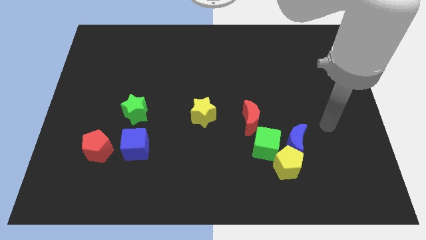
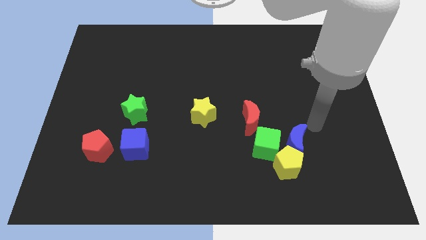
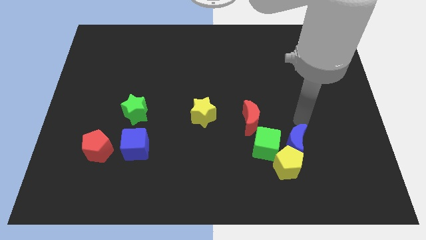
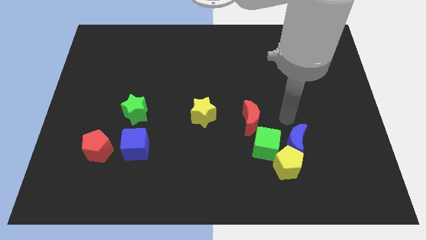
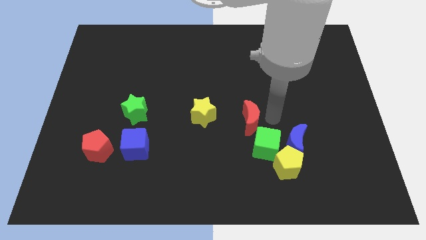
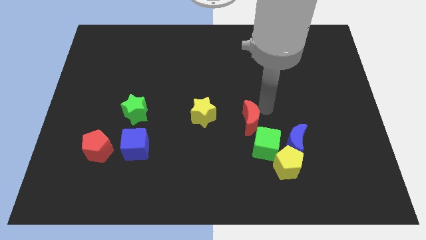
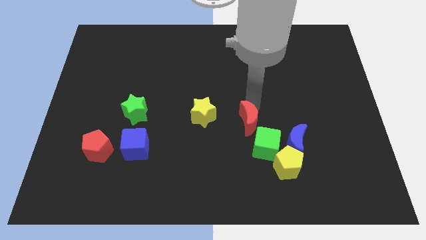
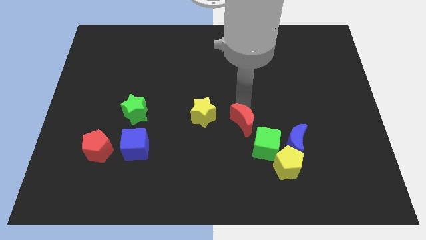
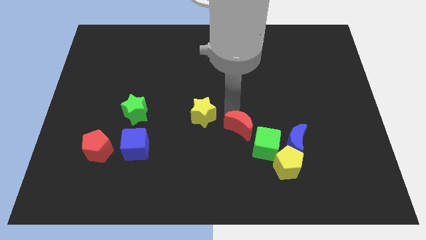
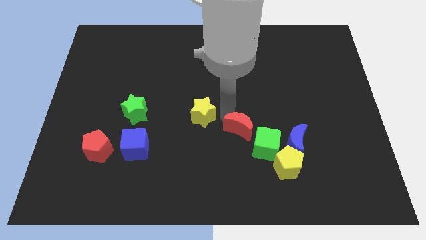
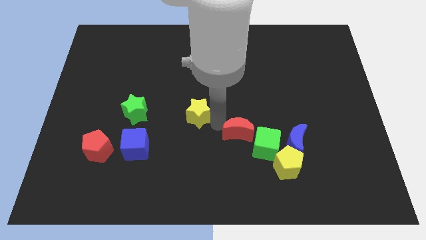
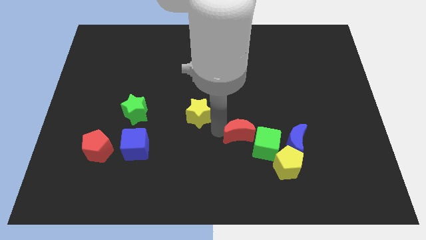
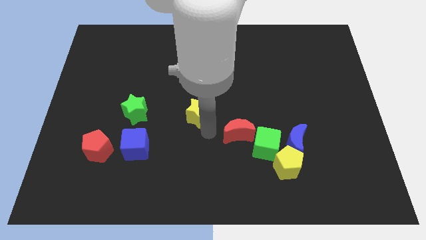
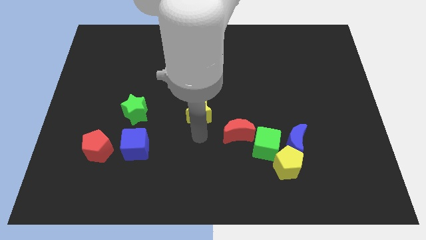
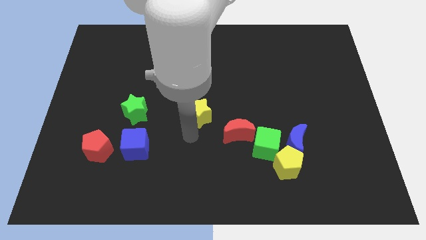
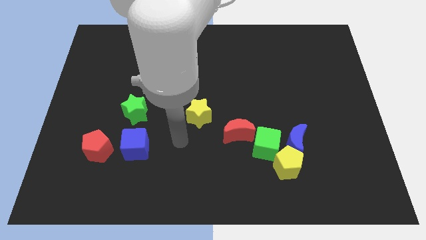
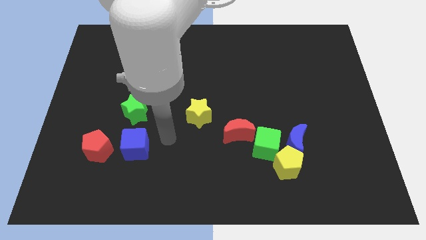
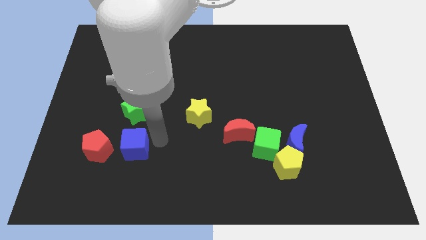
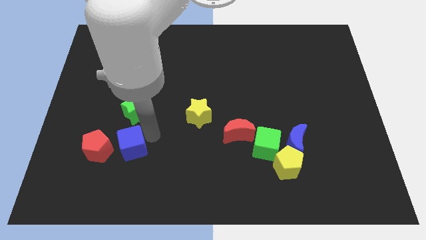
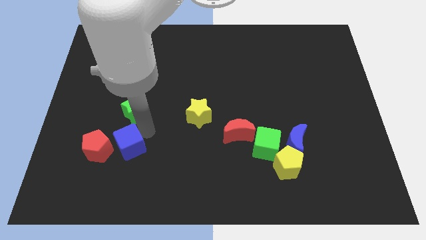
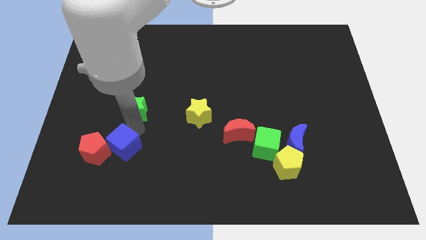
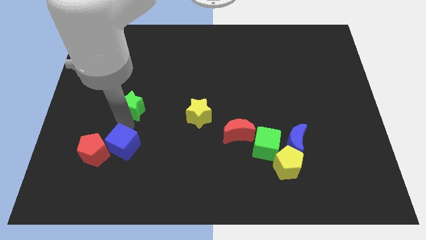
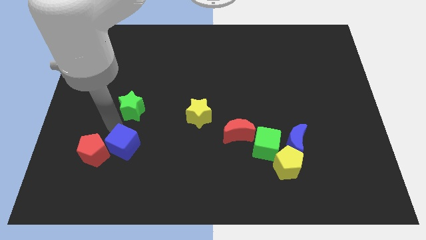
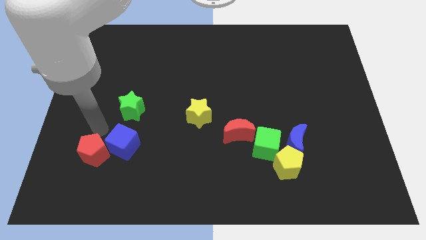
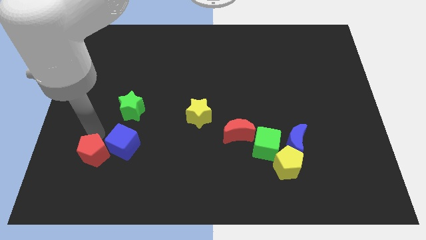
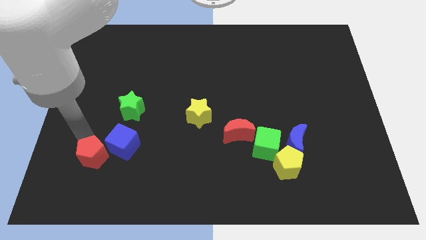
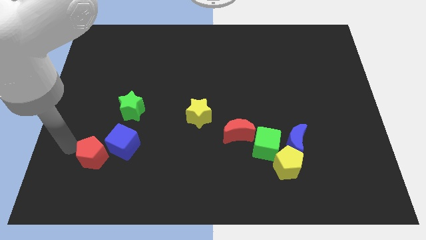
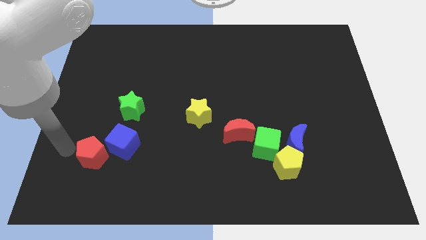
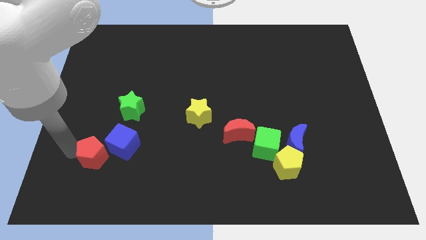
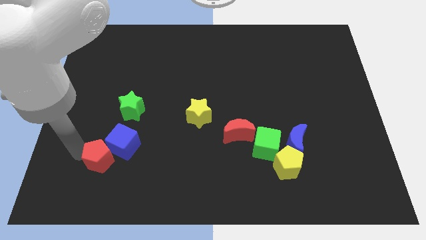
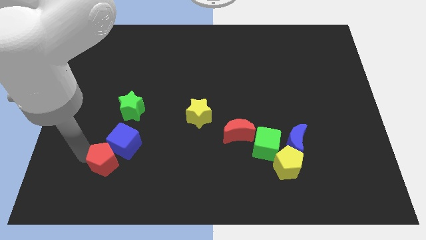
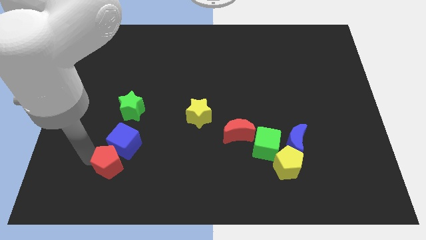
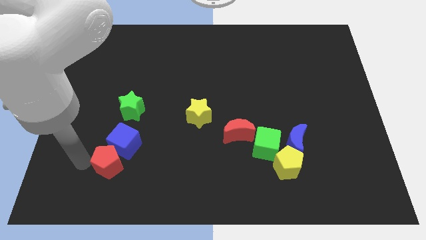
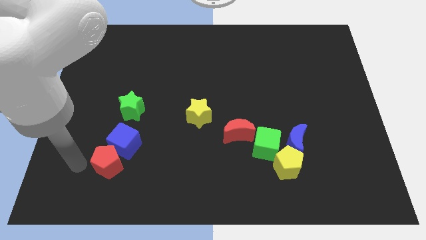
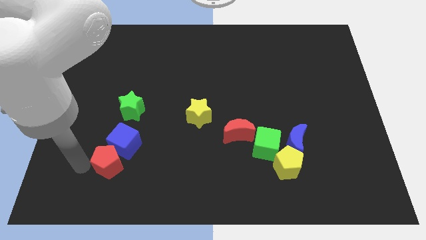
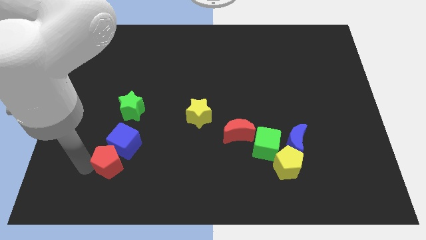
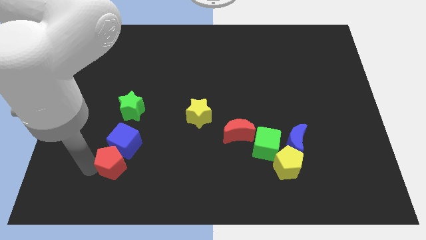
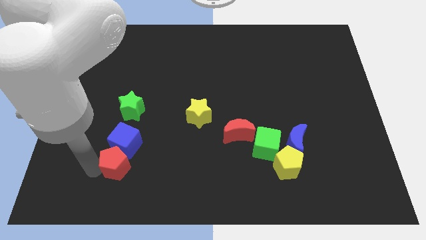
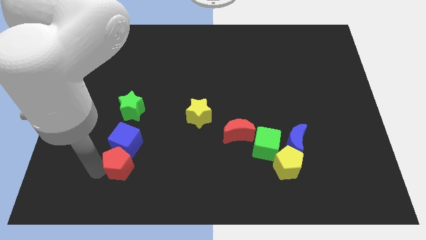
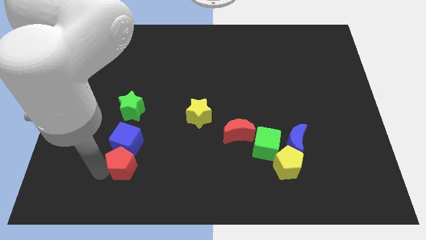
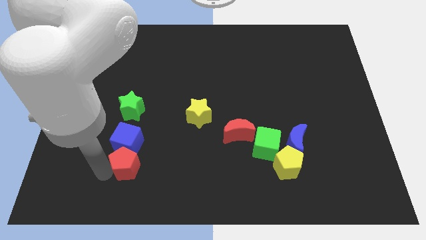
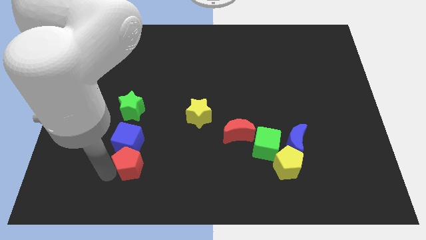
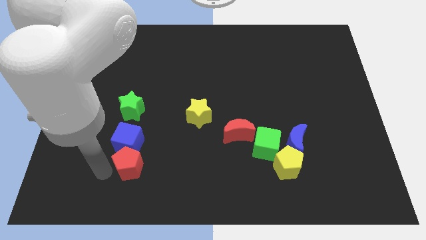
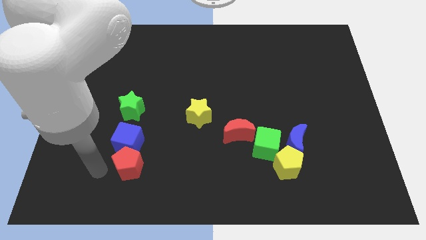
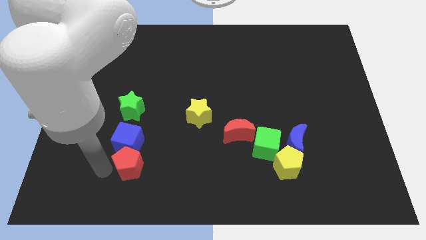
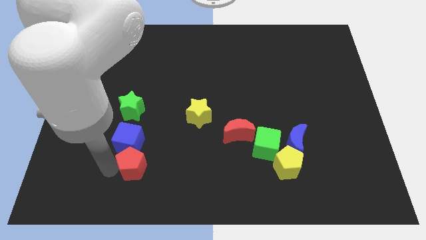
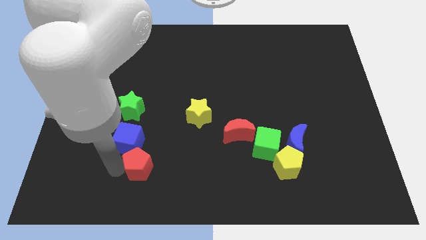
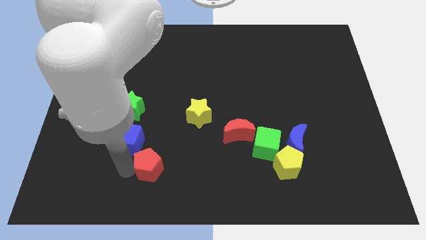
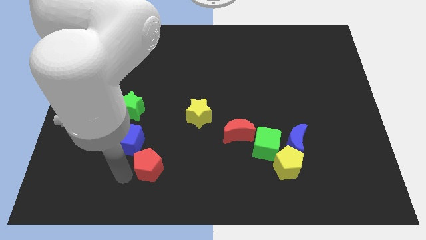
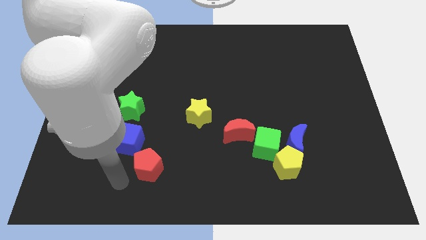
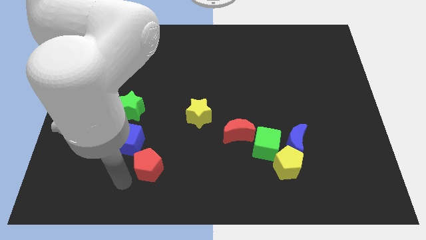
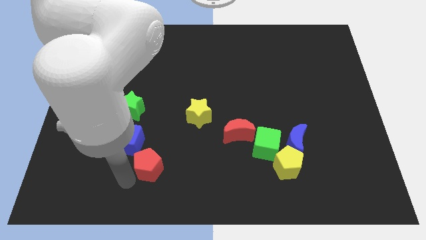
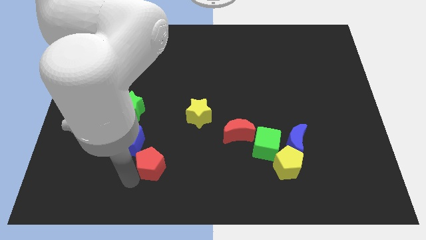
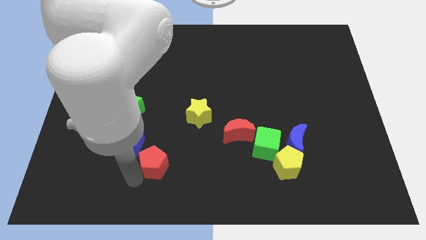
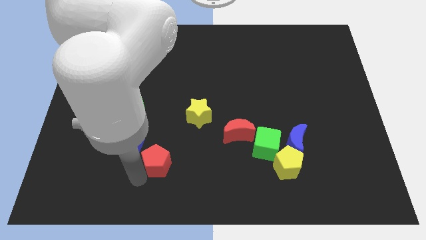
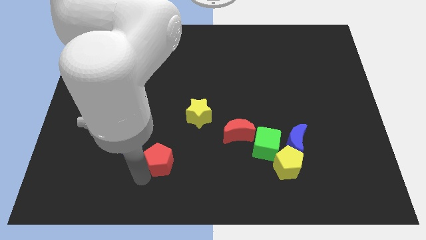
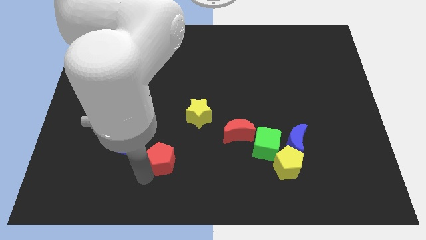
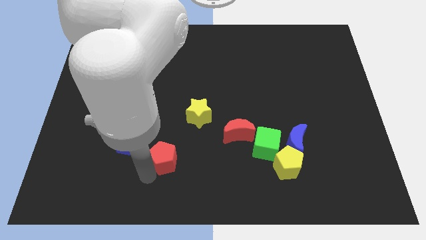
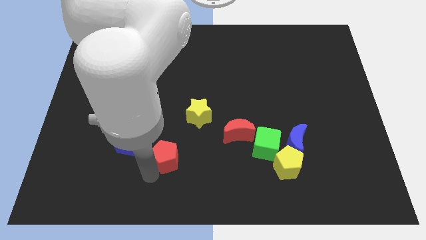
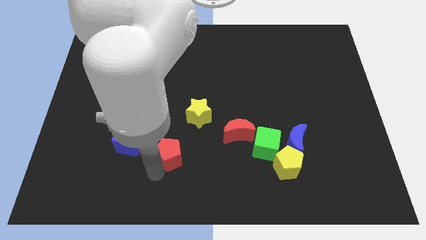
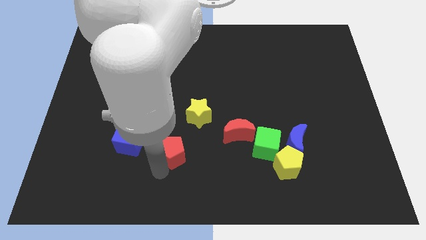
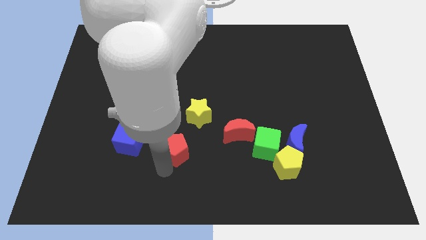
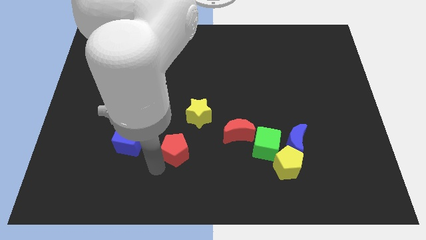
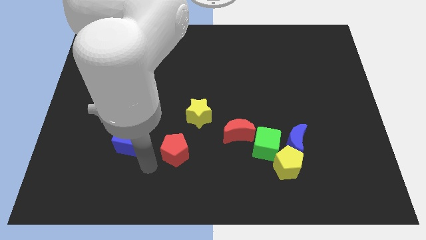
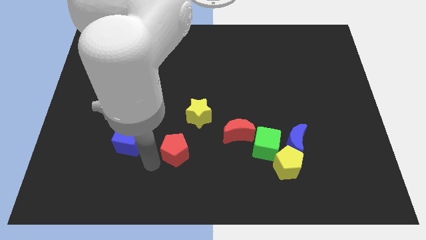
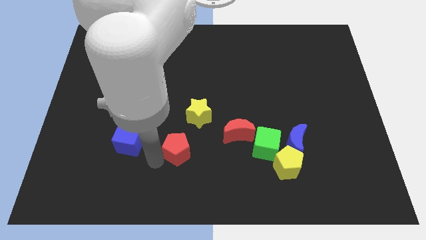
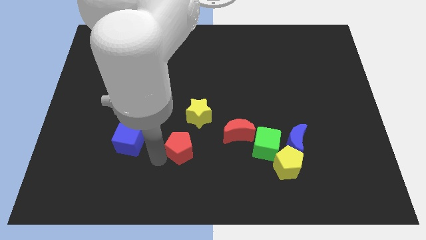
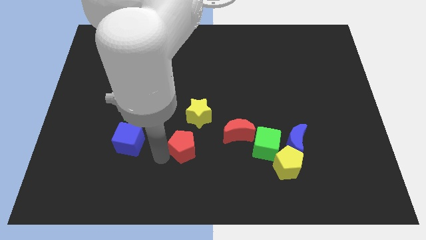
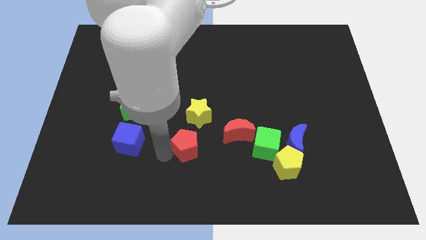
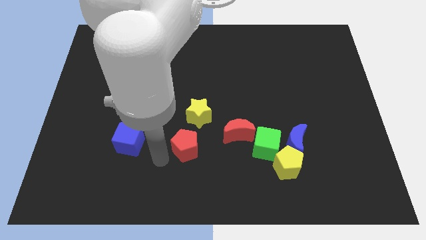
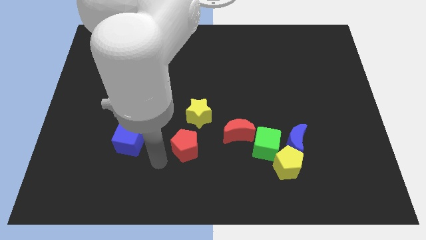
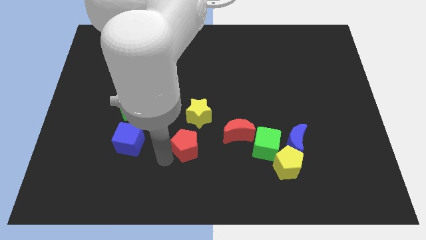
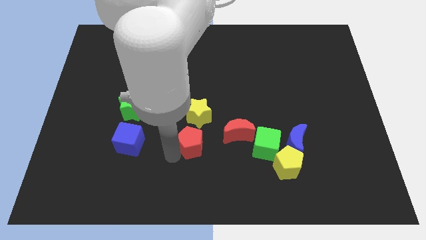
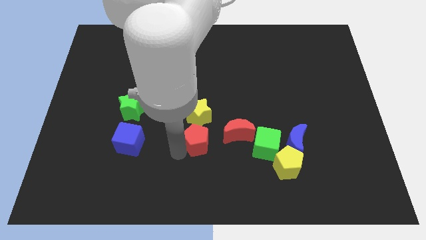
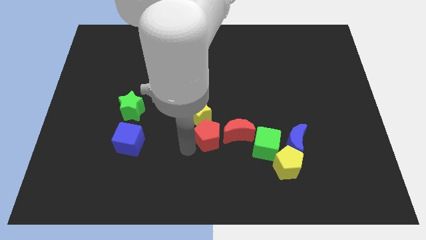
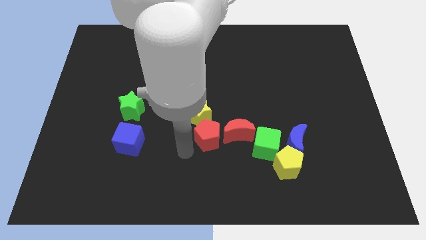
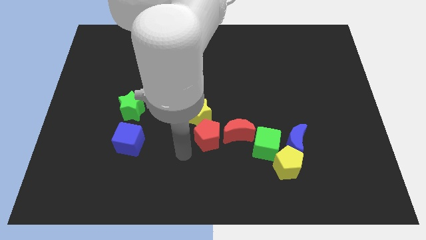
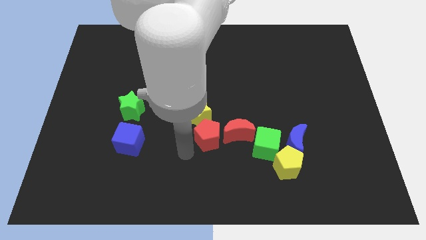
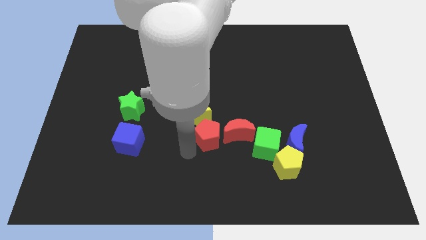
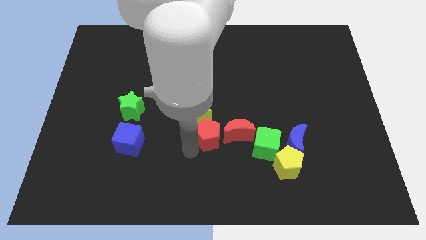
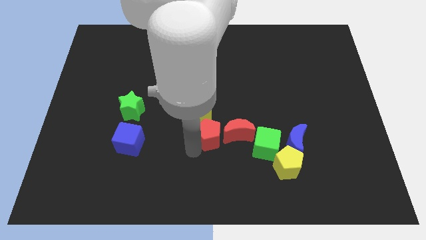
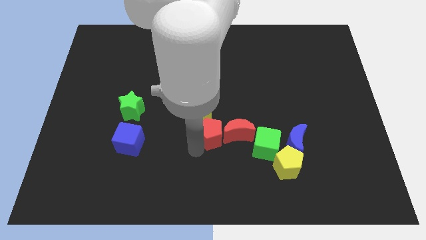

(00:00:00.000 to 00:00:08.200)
push the red pentagon towards the red moon
